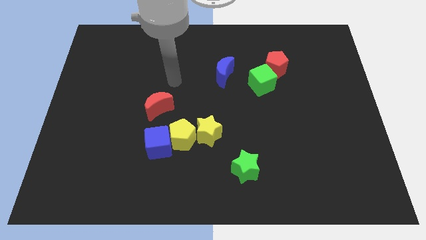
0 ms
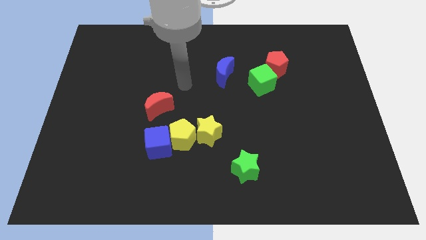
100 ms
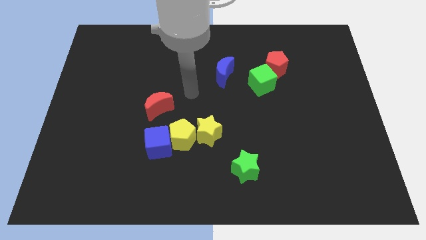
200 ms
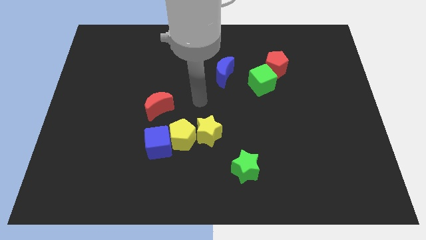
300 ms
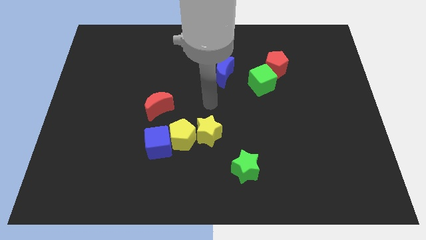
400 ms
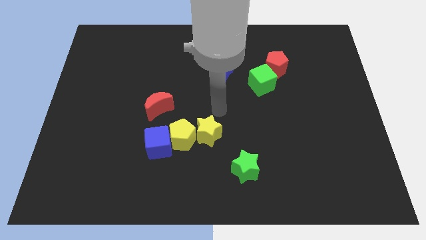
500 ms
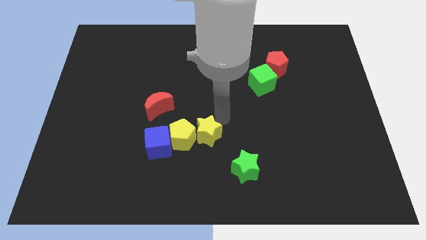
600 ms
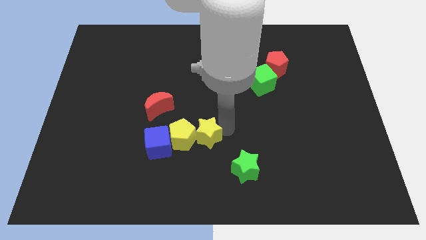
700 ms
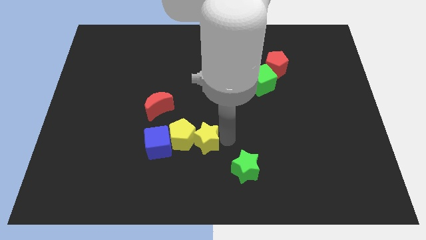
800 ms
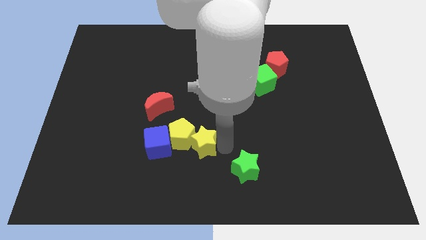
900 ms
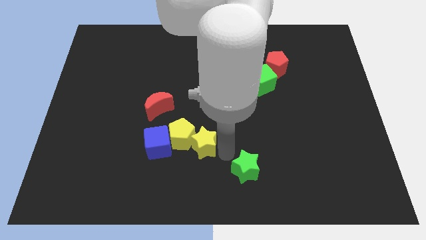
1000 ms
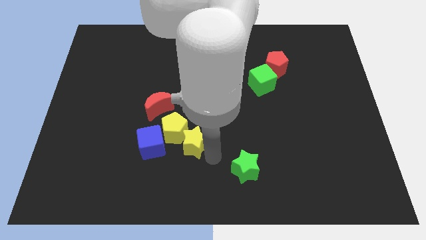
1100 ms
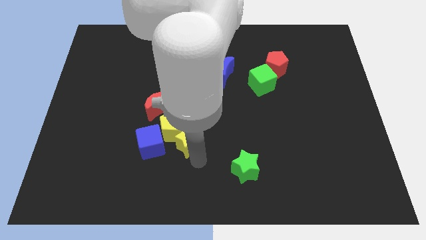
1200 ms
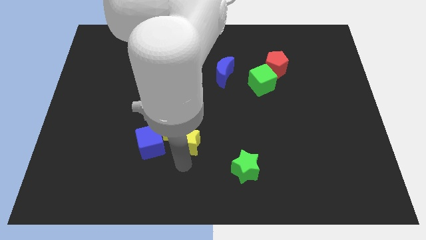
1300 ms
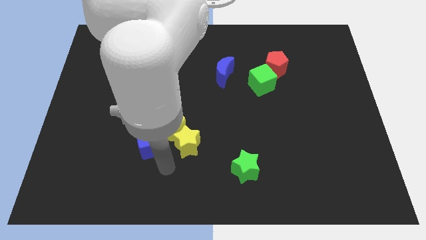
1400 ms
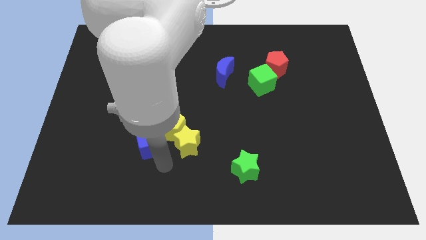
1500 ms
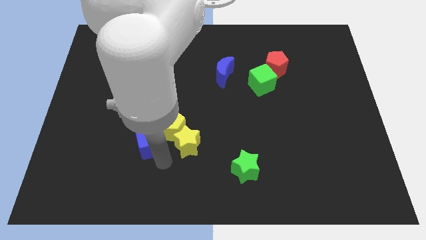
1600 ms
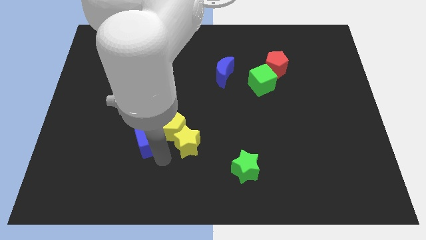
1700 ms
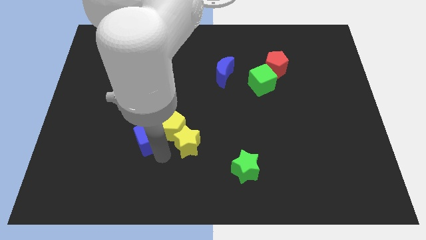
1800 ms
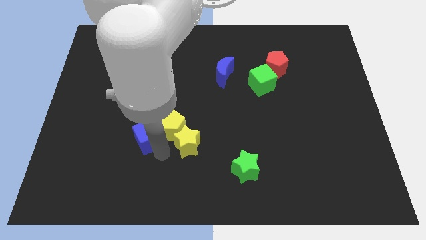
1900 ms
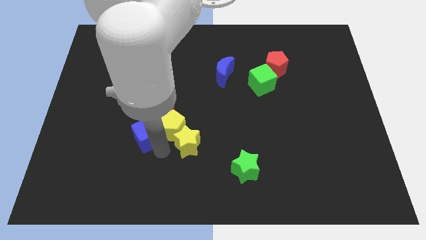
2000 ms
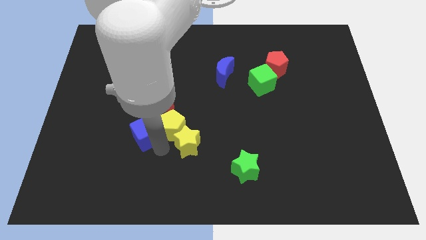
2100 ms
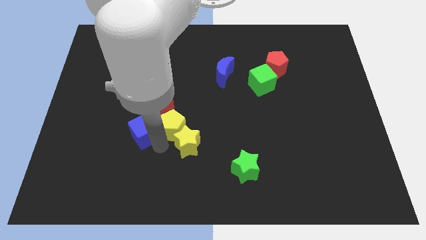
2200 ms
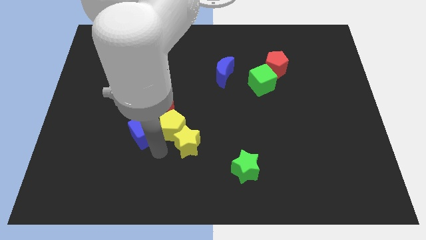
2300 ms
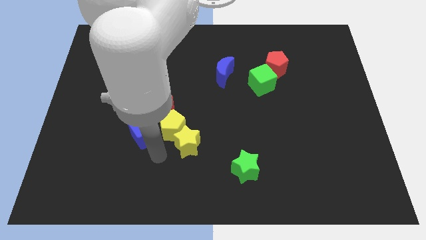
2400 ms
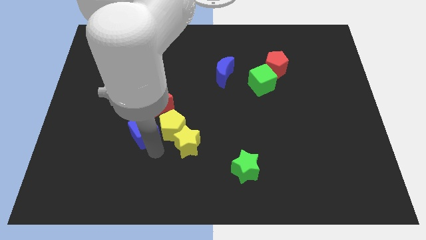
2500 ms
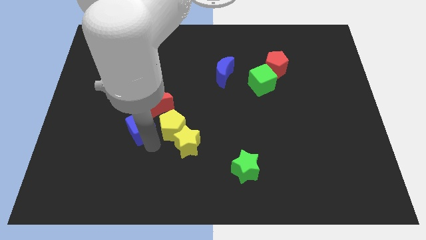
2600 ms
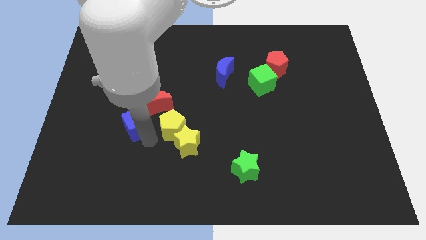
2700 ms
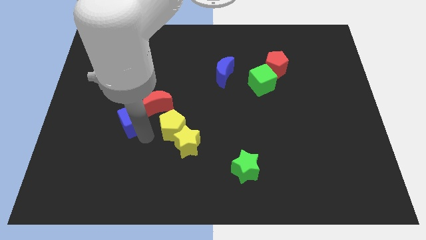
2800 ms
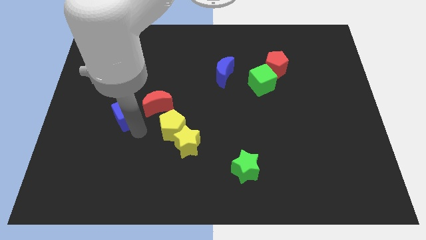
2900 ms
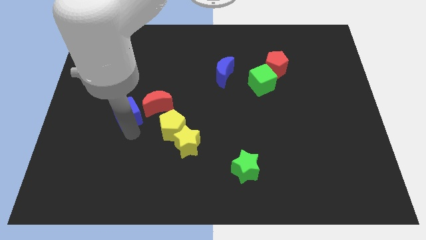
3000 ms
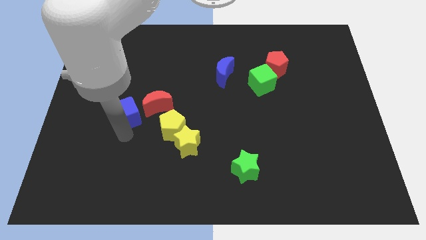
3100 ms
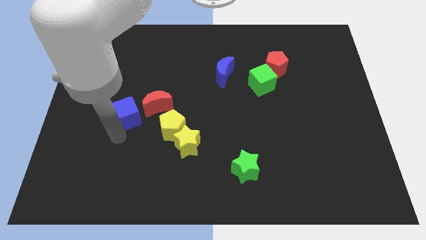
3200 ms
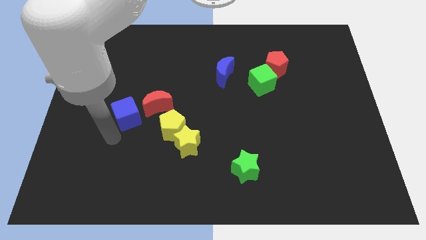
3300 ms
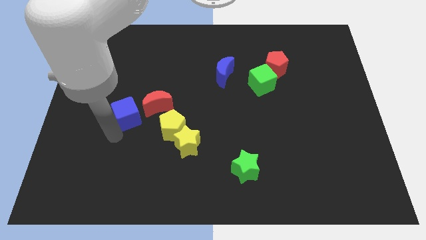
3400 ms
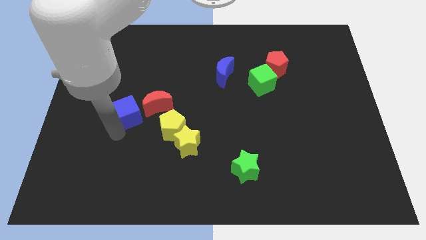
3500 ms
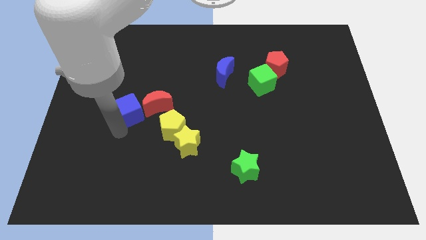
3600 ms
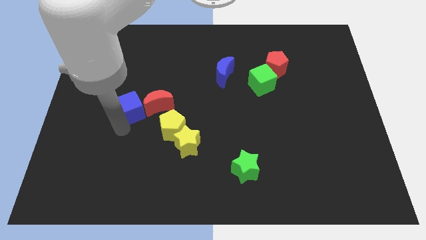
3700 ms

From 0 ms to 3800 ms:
move the blue cube a little up

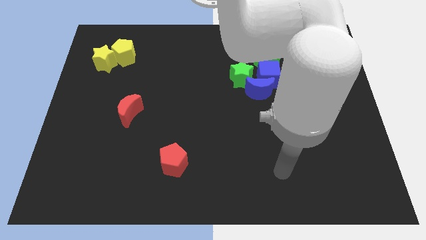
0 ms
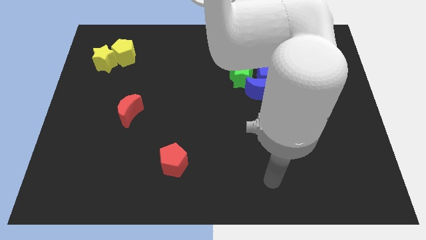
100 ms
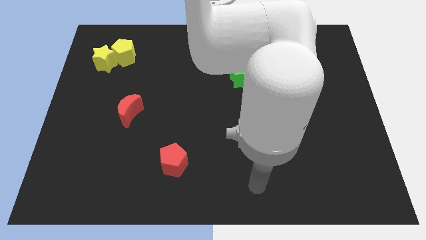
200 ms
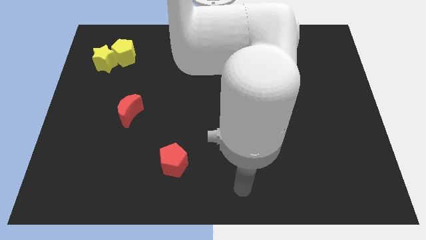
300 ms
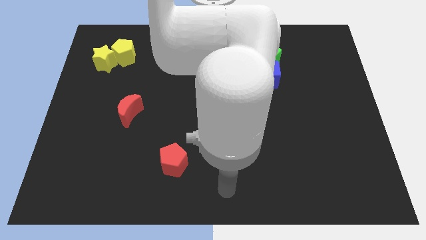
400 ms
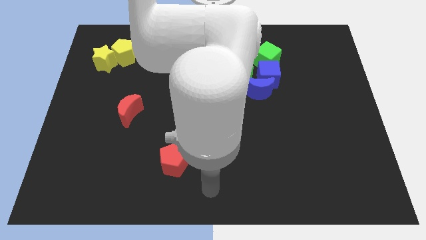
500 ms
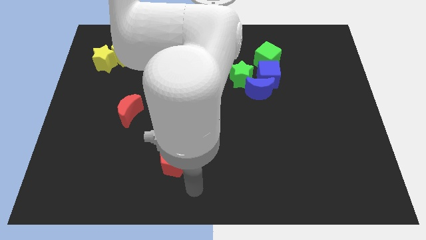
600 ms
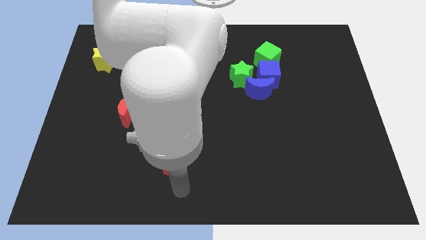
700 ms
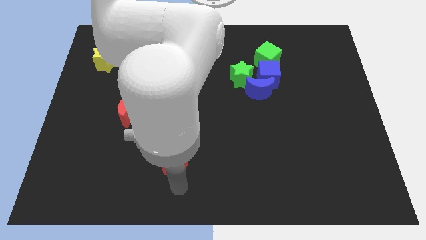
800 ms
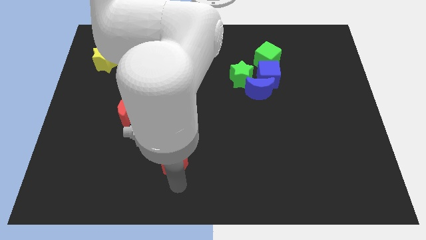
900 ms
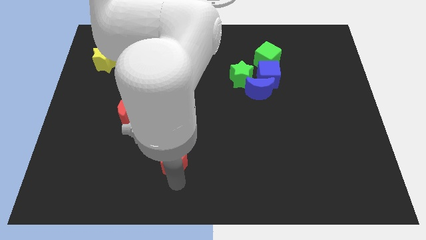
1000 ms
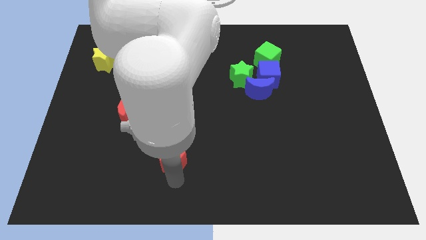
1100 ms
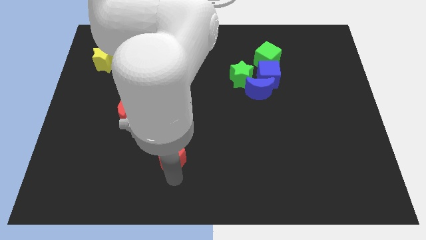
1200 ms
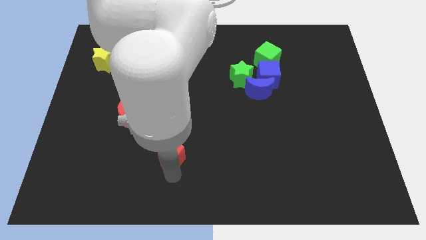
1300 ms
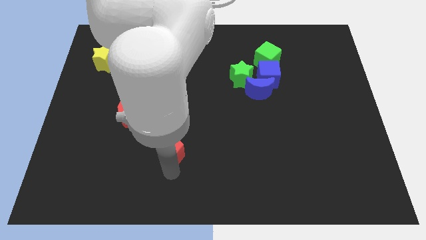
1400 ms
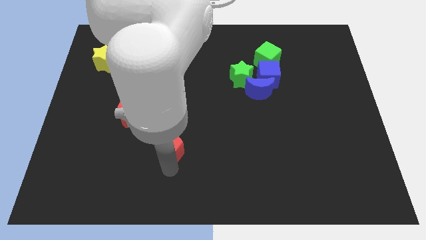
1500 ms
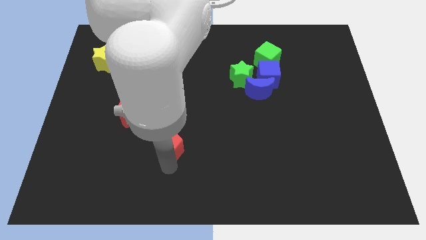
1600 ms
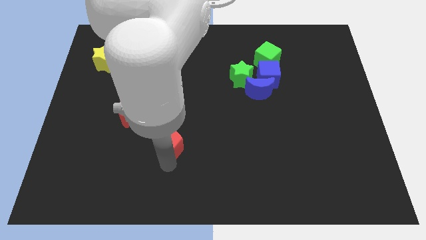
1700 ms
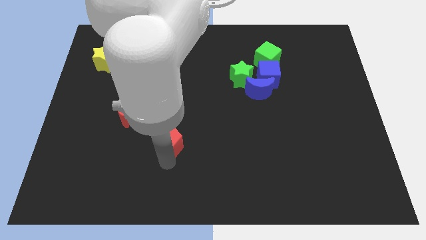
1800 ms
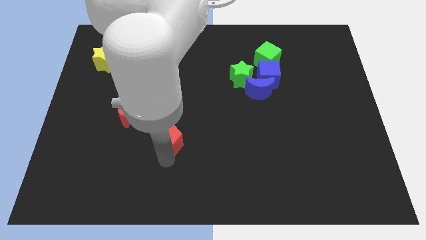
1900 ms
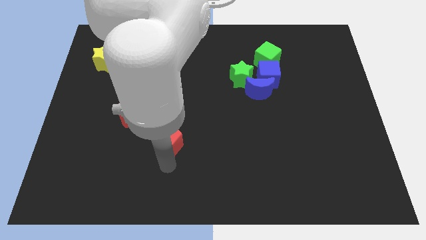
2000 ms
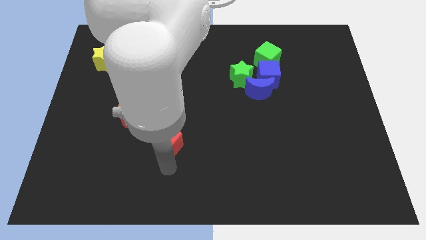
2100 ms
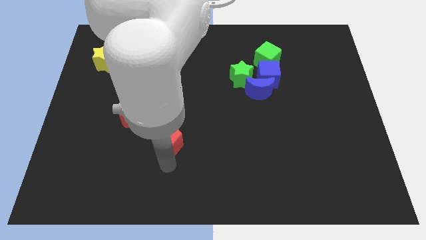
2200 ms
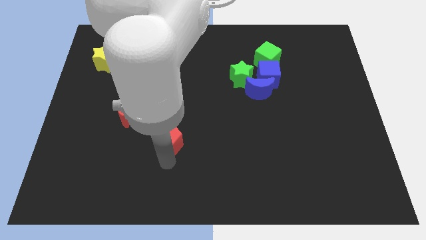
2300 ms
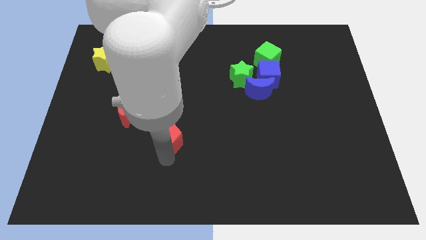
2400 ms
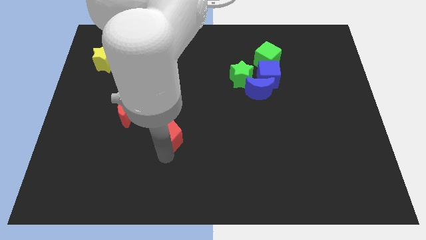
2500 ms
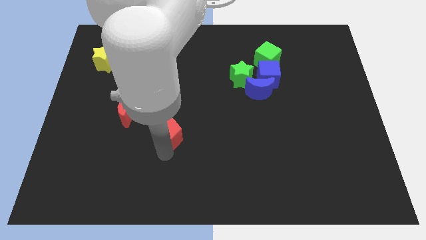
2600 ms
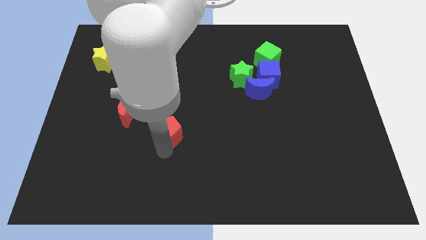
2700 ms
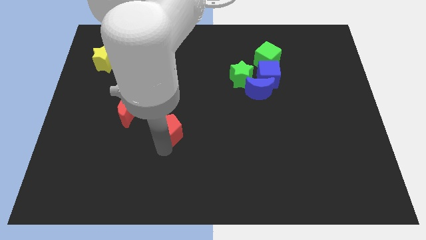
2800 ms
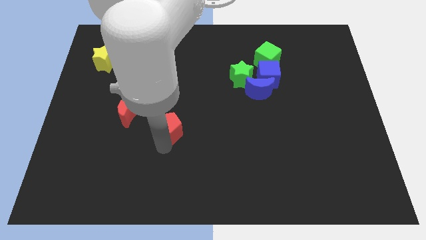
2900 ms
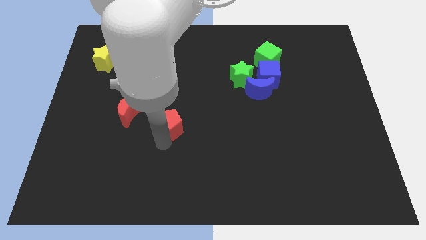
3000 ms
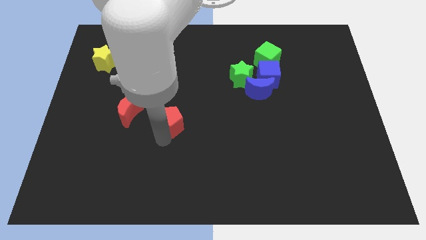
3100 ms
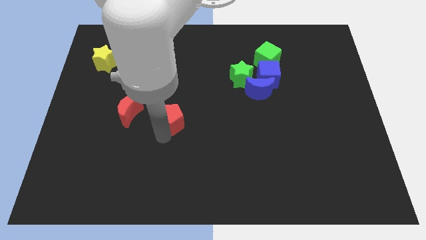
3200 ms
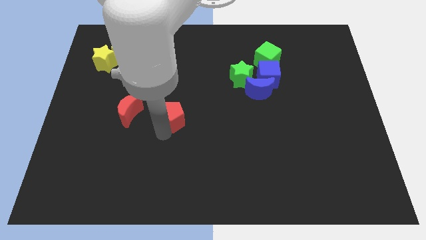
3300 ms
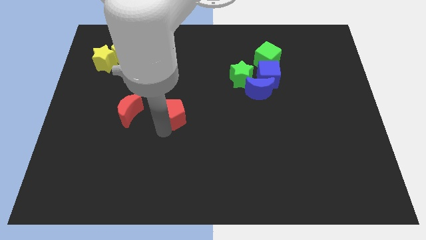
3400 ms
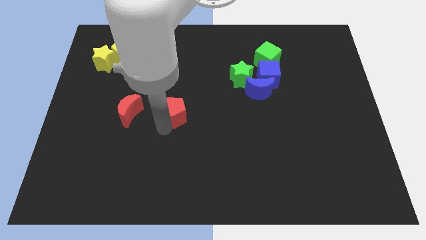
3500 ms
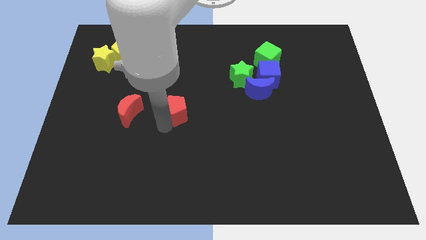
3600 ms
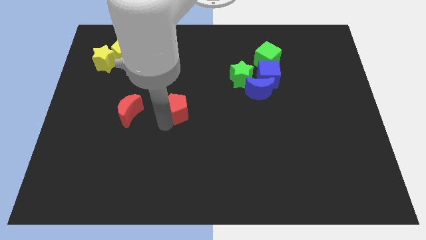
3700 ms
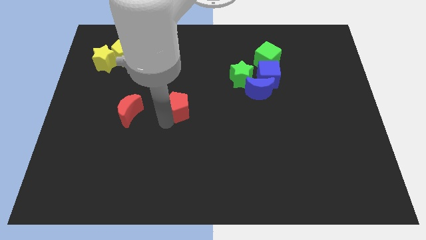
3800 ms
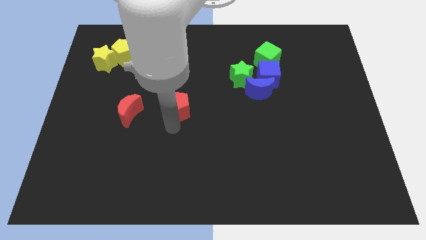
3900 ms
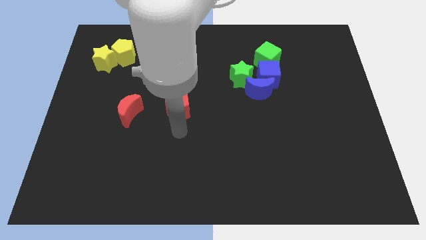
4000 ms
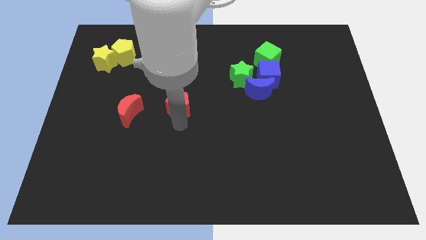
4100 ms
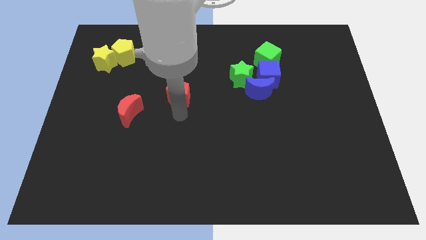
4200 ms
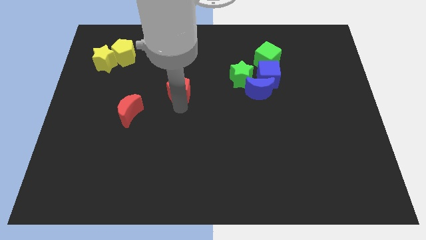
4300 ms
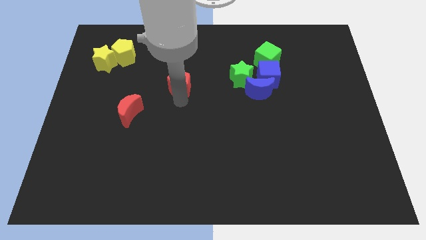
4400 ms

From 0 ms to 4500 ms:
move the red pentagon up
